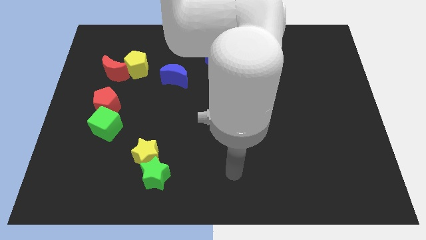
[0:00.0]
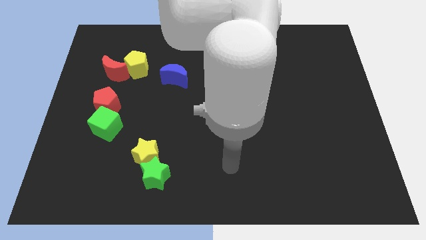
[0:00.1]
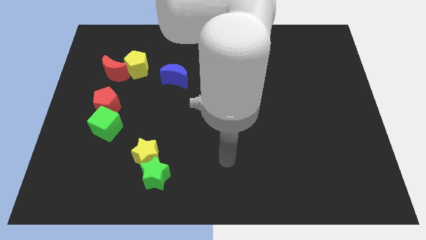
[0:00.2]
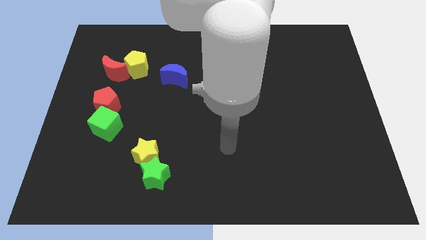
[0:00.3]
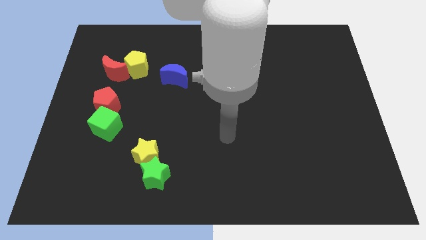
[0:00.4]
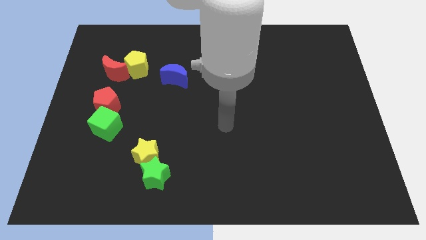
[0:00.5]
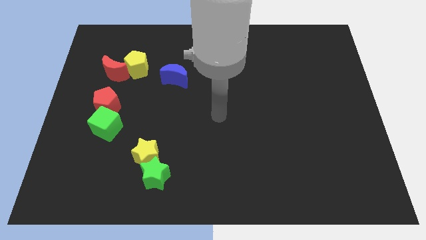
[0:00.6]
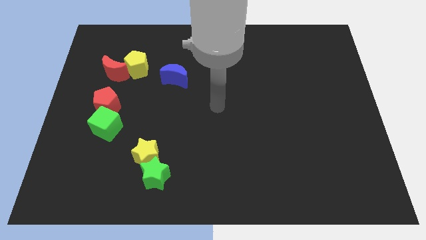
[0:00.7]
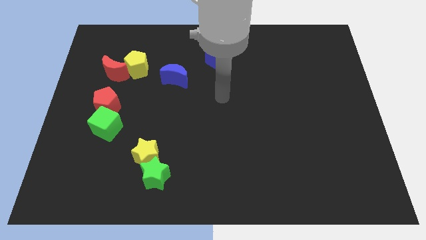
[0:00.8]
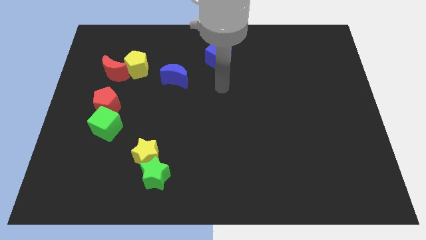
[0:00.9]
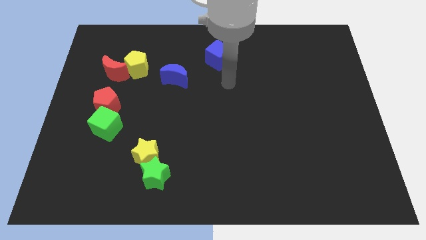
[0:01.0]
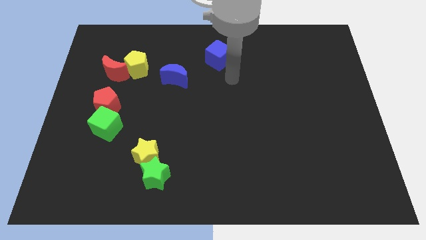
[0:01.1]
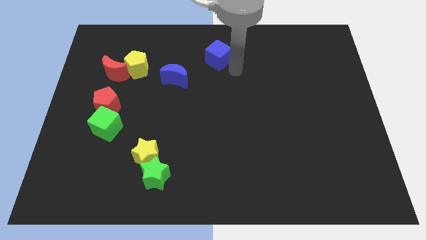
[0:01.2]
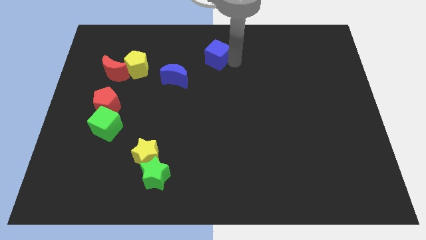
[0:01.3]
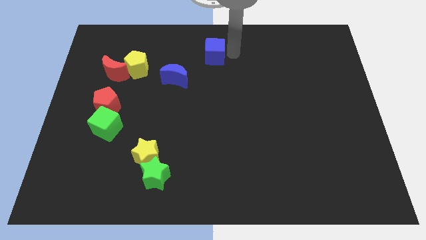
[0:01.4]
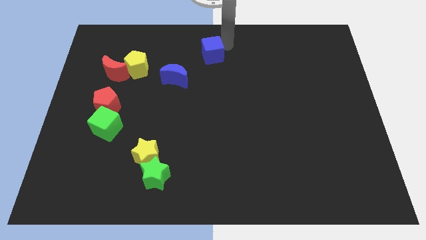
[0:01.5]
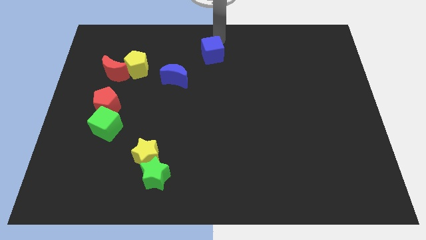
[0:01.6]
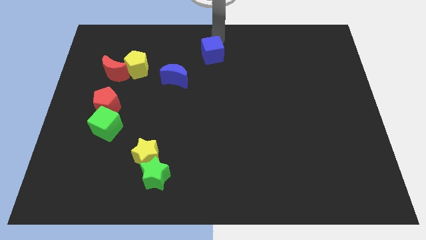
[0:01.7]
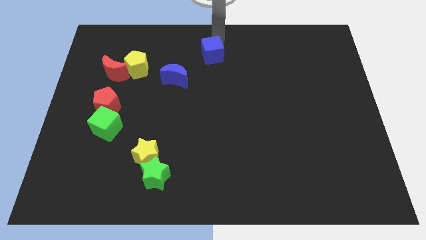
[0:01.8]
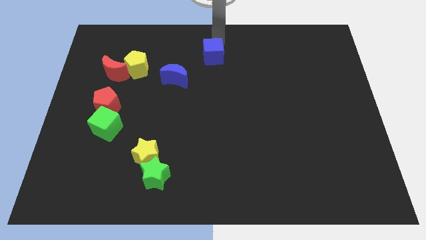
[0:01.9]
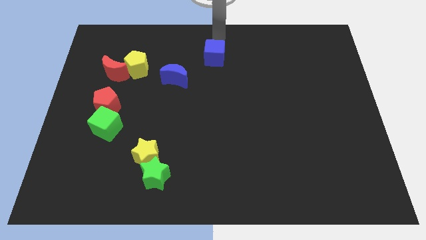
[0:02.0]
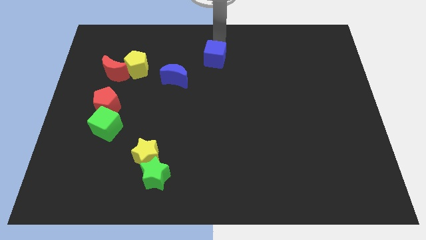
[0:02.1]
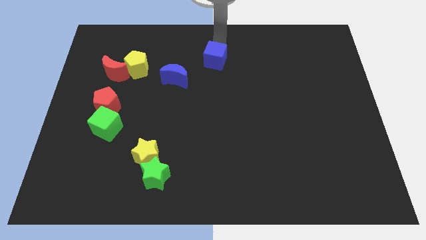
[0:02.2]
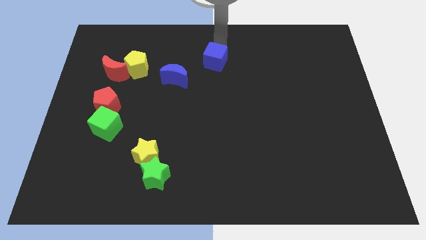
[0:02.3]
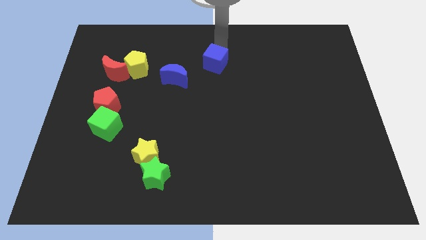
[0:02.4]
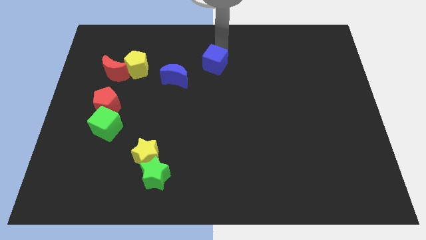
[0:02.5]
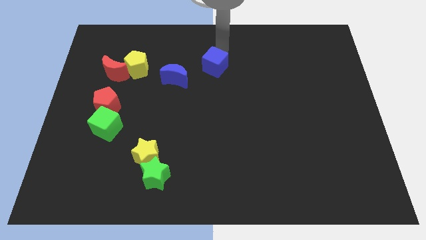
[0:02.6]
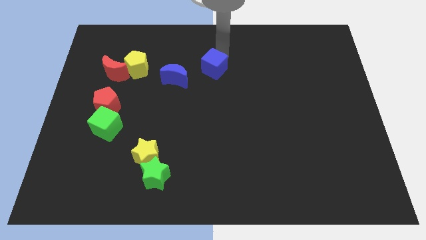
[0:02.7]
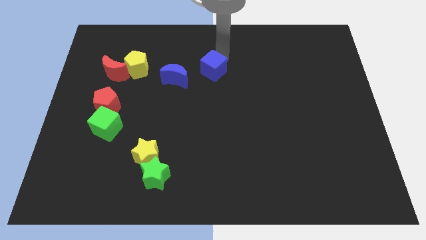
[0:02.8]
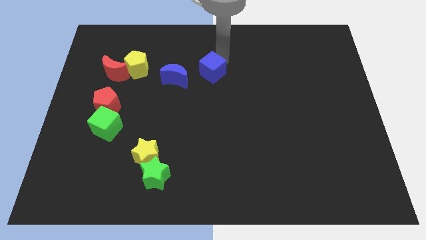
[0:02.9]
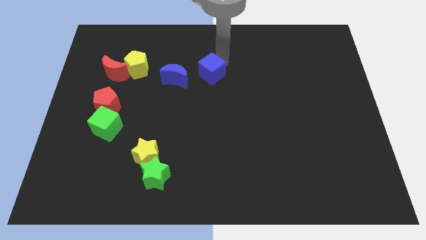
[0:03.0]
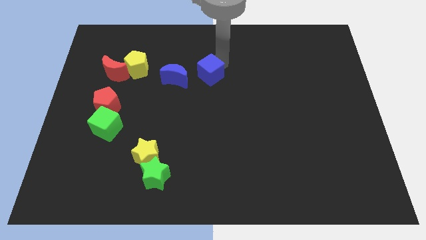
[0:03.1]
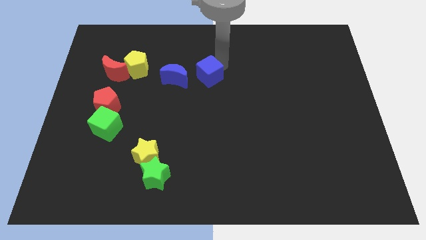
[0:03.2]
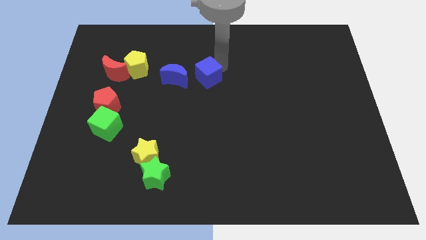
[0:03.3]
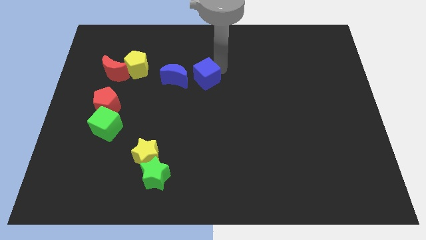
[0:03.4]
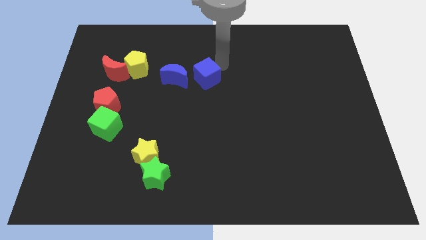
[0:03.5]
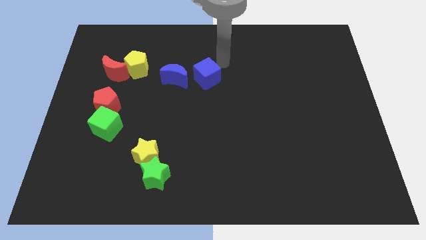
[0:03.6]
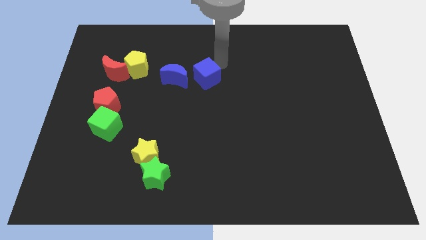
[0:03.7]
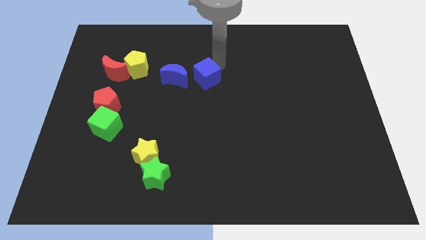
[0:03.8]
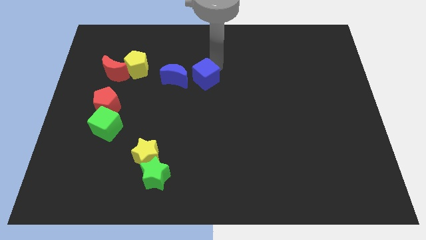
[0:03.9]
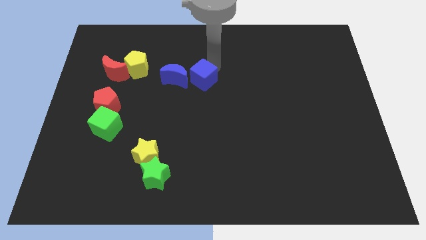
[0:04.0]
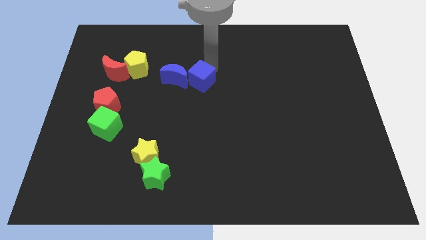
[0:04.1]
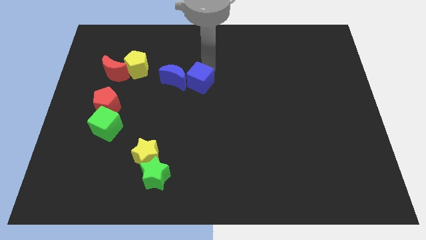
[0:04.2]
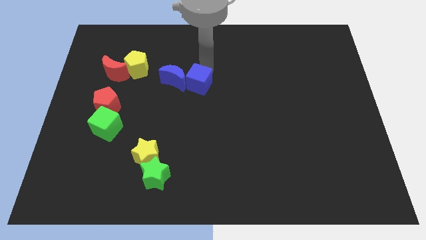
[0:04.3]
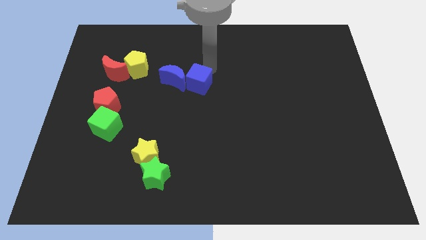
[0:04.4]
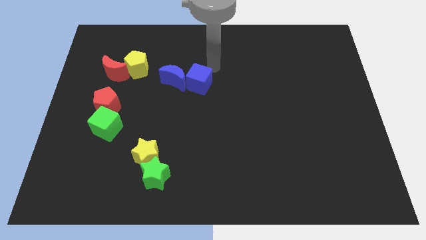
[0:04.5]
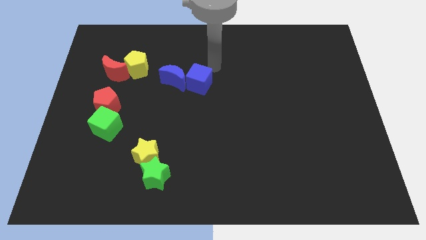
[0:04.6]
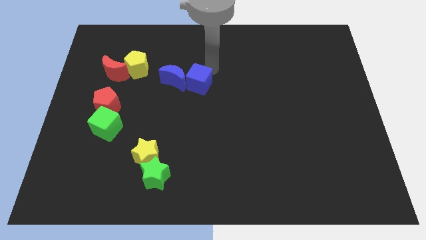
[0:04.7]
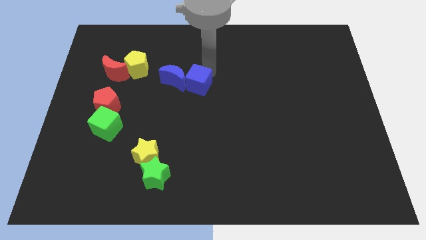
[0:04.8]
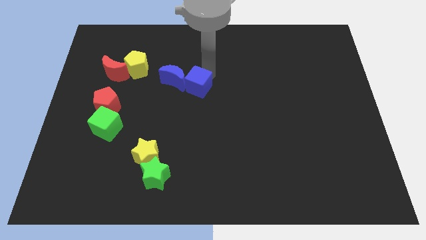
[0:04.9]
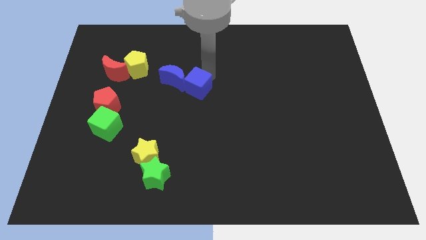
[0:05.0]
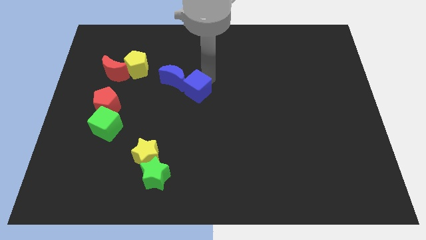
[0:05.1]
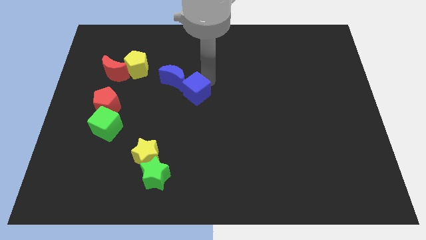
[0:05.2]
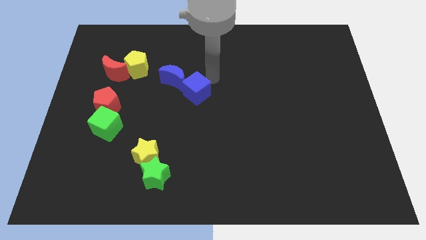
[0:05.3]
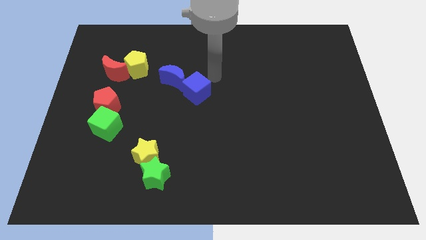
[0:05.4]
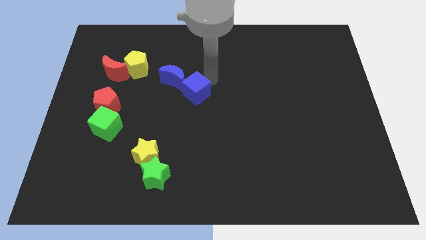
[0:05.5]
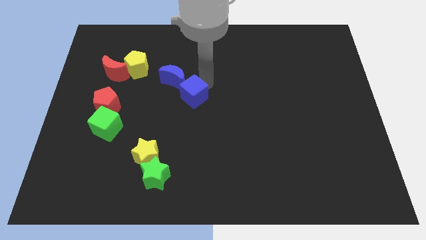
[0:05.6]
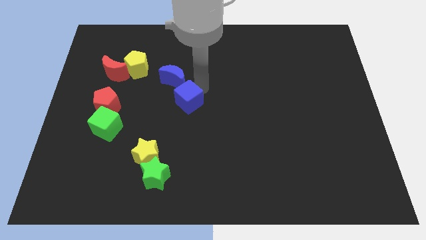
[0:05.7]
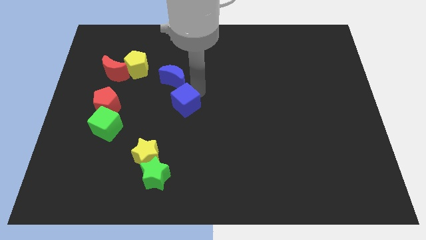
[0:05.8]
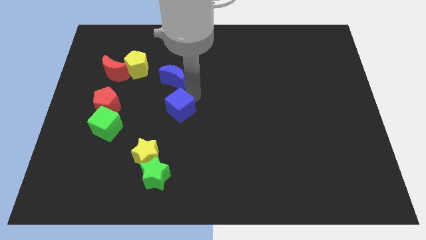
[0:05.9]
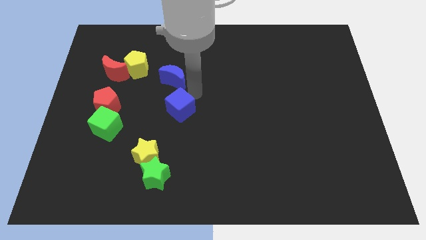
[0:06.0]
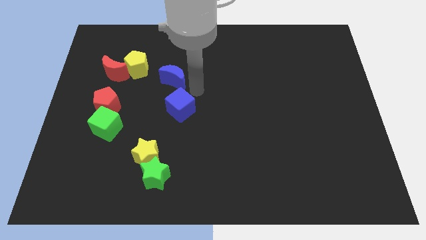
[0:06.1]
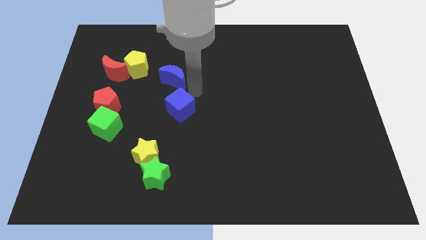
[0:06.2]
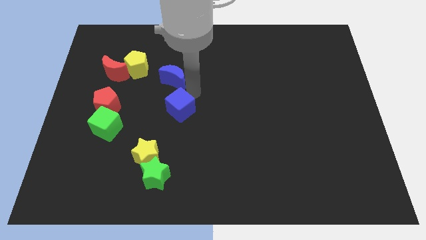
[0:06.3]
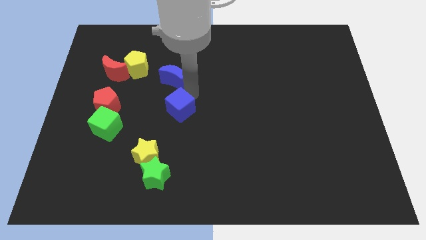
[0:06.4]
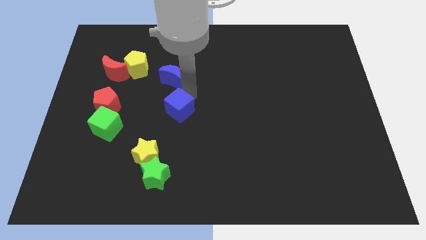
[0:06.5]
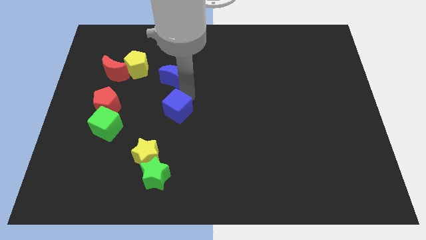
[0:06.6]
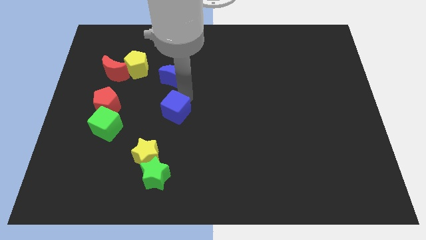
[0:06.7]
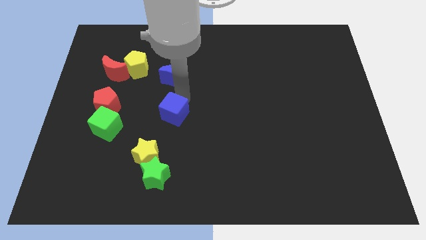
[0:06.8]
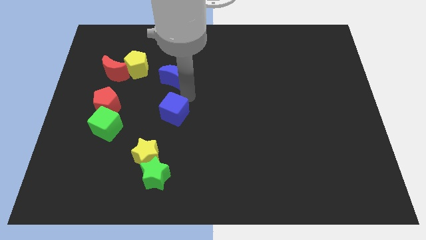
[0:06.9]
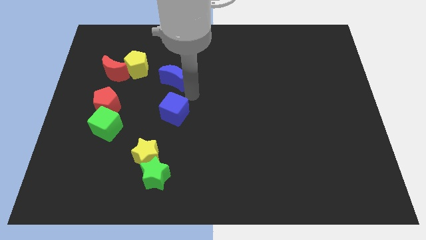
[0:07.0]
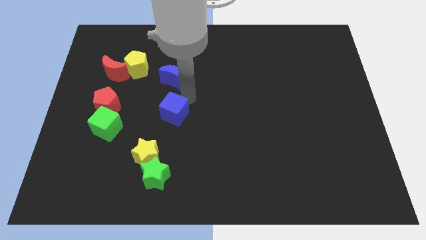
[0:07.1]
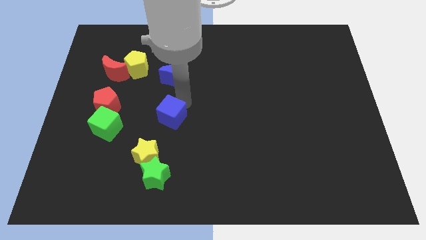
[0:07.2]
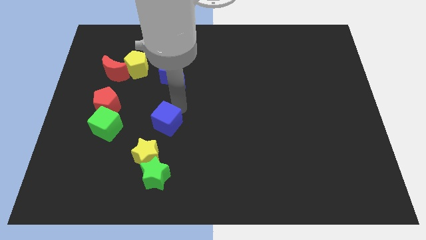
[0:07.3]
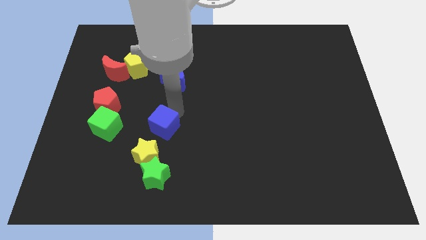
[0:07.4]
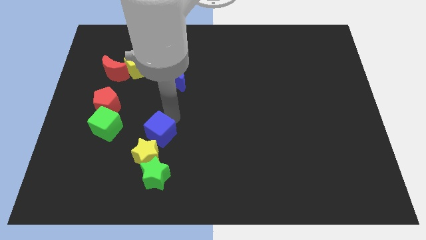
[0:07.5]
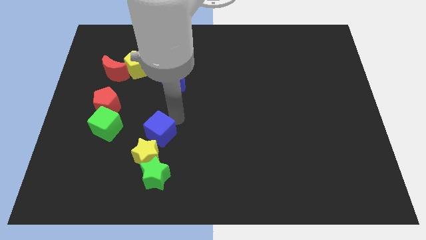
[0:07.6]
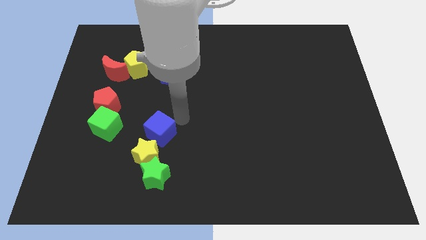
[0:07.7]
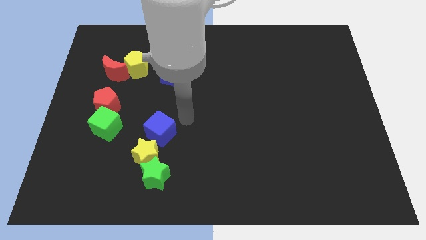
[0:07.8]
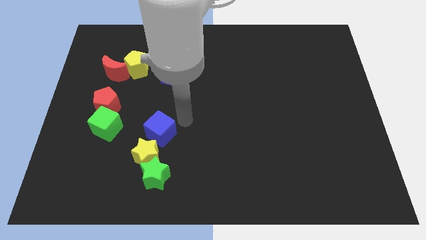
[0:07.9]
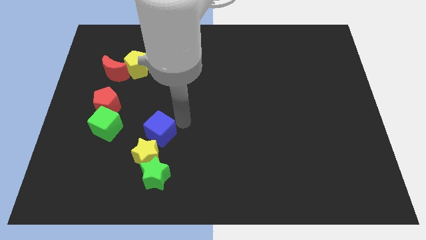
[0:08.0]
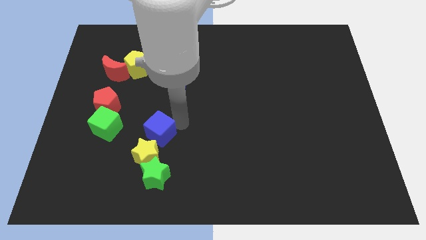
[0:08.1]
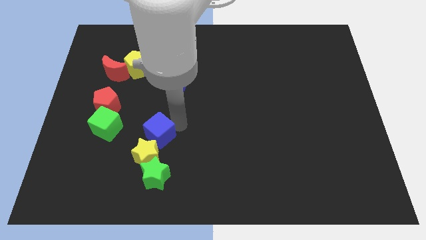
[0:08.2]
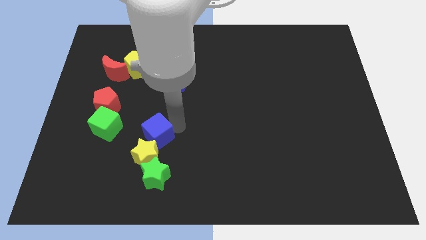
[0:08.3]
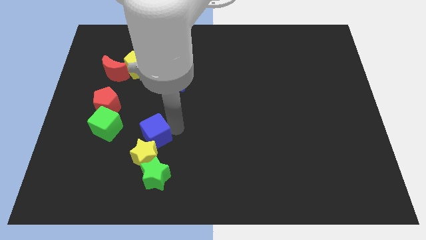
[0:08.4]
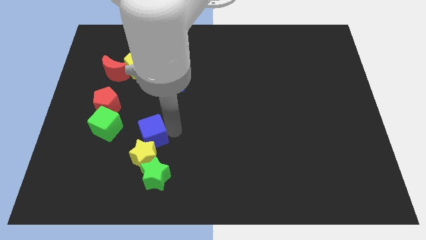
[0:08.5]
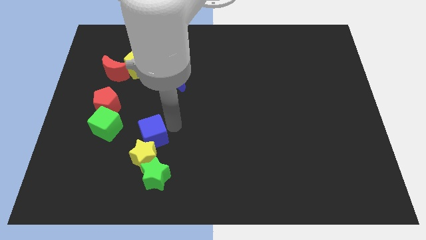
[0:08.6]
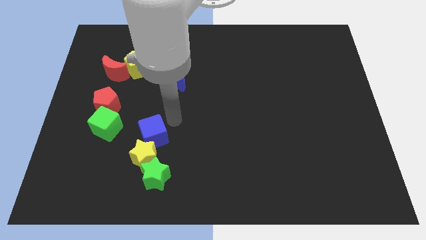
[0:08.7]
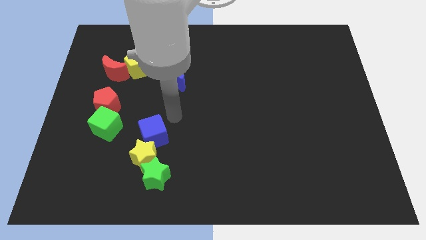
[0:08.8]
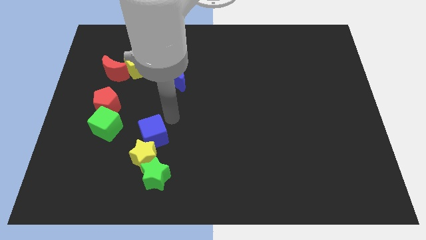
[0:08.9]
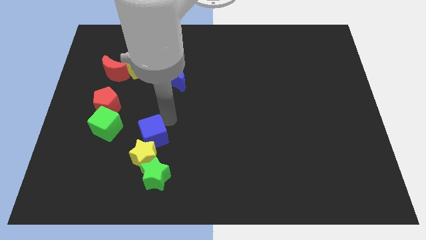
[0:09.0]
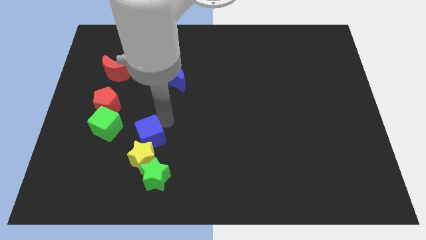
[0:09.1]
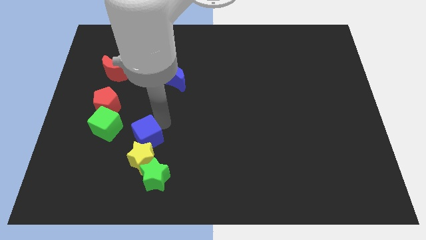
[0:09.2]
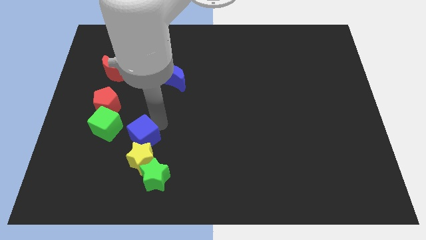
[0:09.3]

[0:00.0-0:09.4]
push the blue cube diagonally up and to the left of the green star
